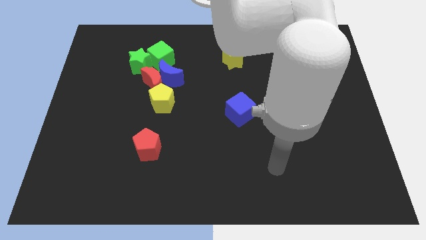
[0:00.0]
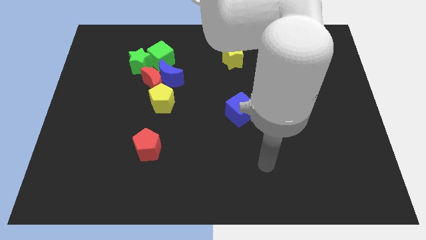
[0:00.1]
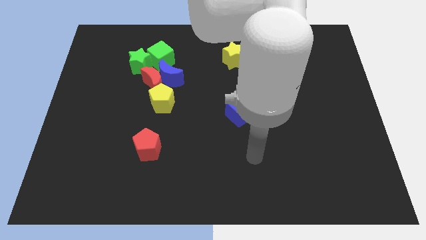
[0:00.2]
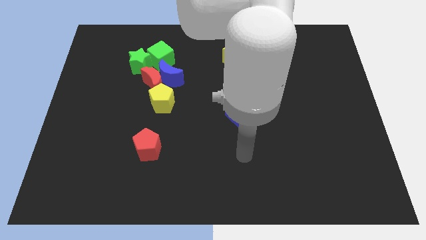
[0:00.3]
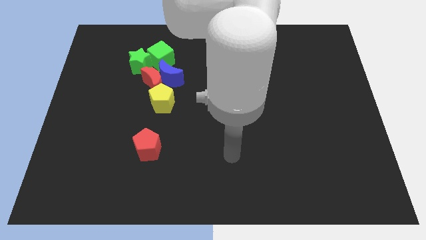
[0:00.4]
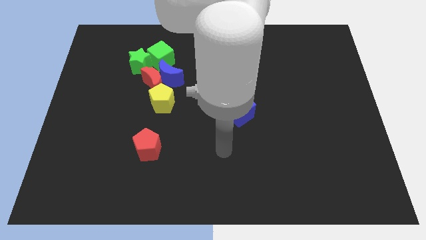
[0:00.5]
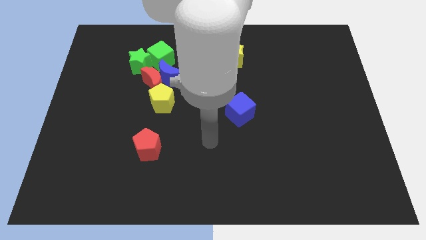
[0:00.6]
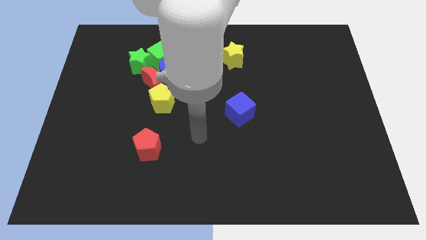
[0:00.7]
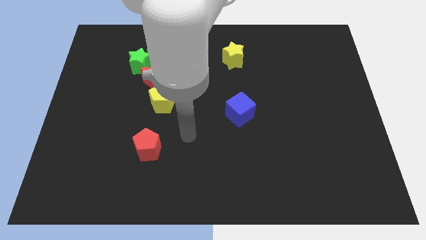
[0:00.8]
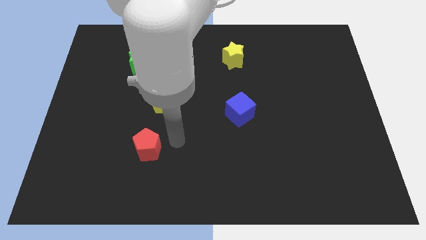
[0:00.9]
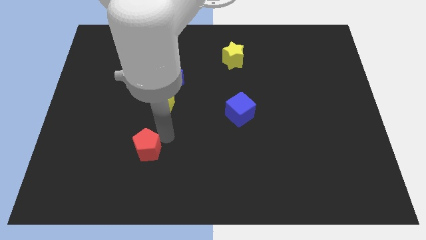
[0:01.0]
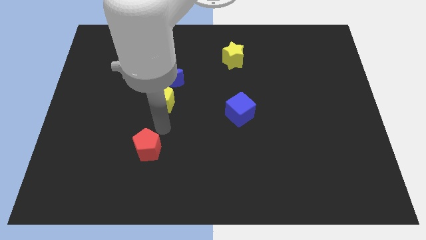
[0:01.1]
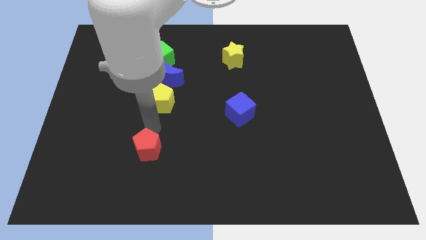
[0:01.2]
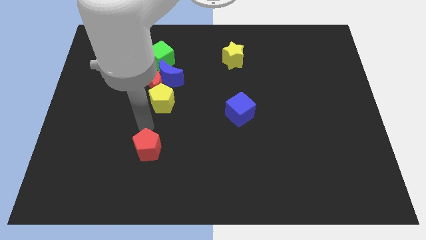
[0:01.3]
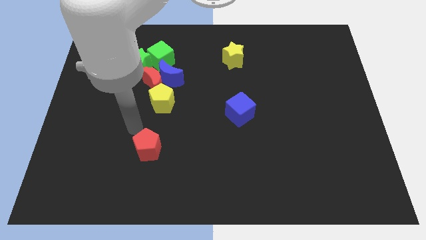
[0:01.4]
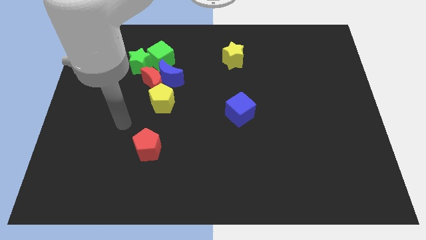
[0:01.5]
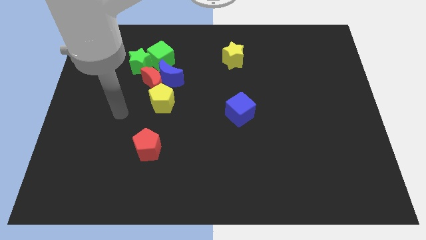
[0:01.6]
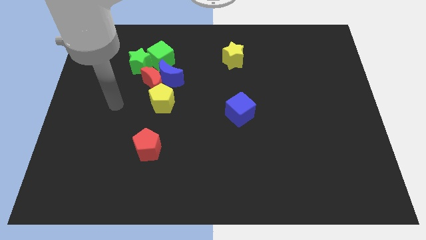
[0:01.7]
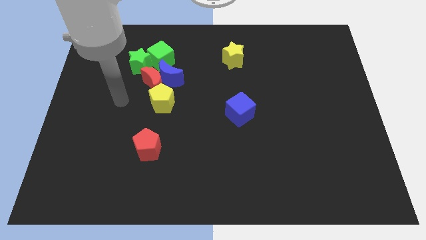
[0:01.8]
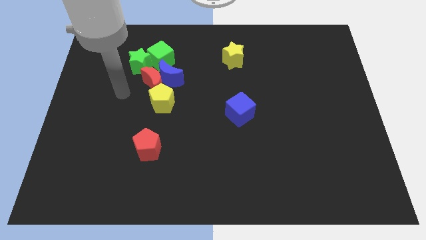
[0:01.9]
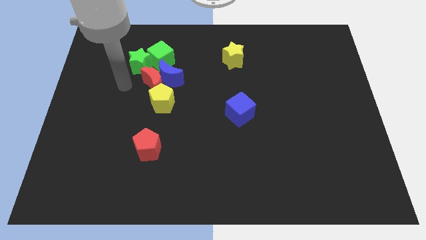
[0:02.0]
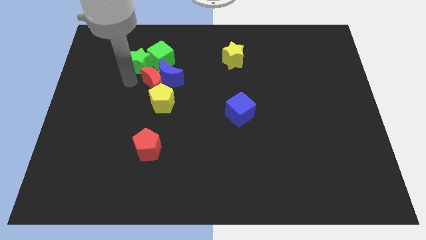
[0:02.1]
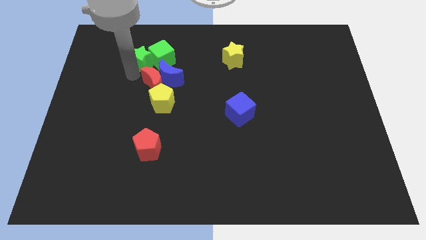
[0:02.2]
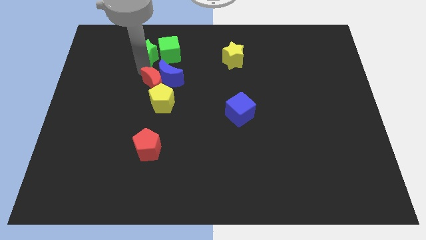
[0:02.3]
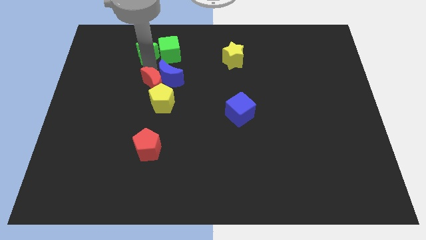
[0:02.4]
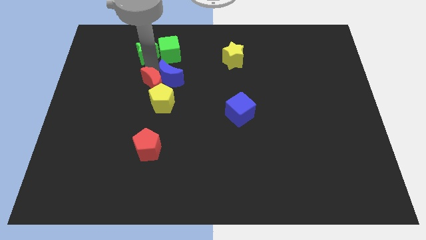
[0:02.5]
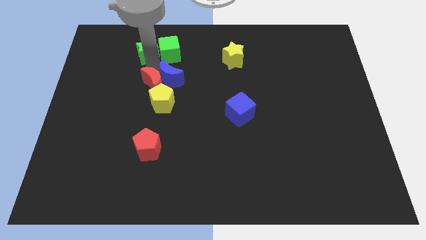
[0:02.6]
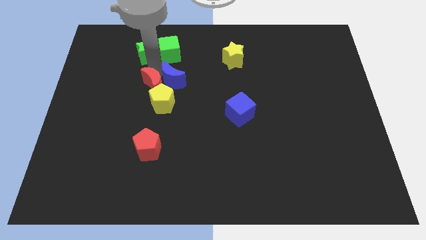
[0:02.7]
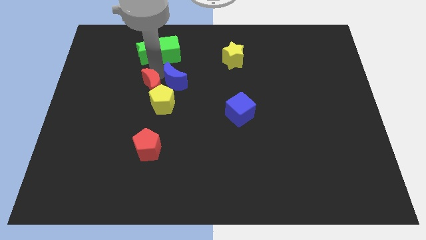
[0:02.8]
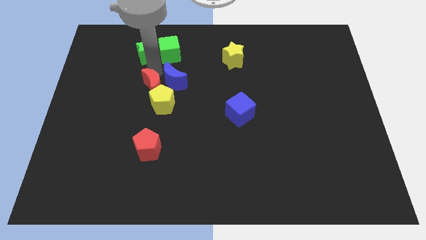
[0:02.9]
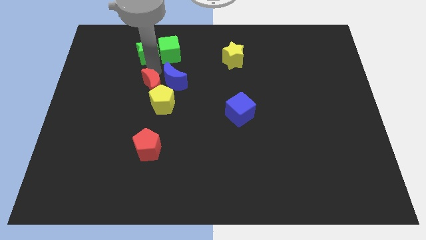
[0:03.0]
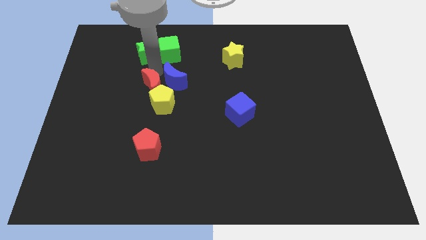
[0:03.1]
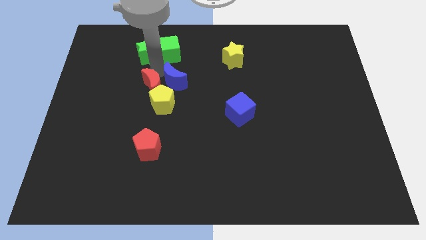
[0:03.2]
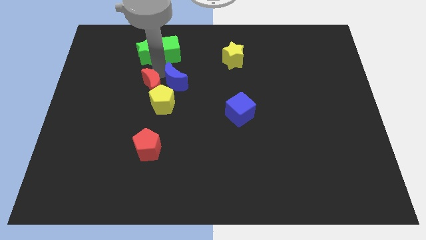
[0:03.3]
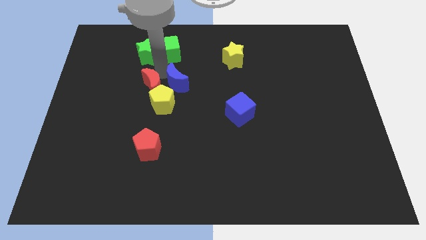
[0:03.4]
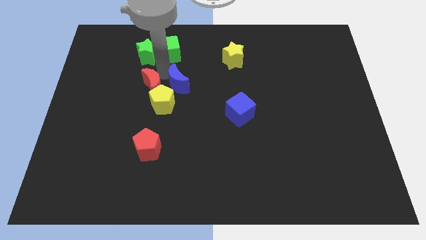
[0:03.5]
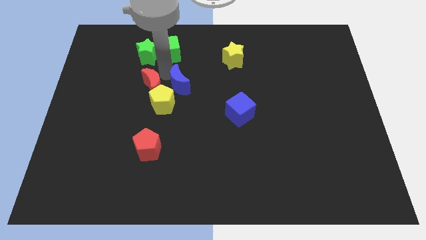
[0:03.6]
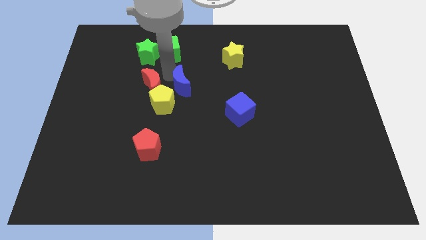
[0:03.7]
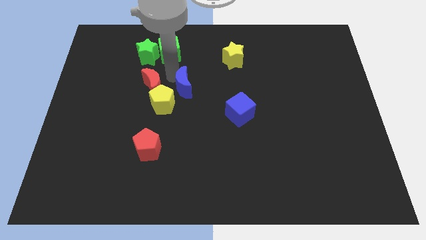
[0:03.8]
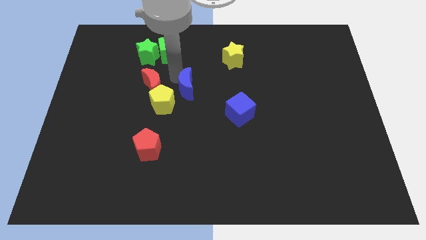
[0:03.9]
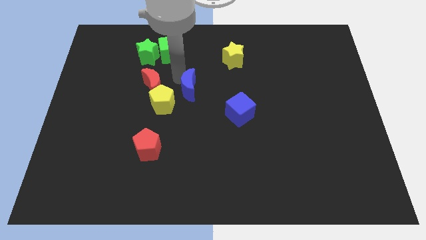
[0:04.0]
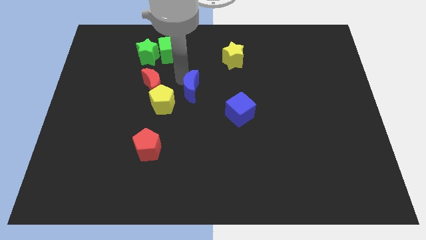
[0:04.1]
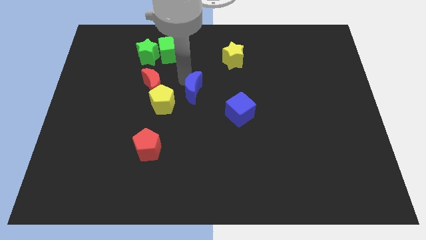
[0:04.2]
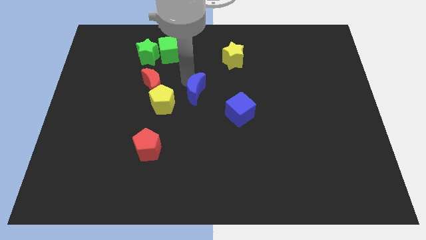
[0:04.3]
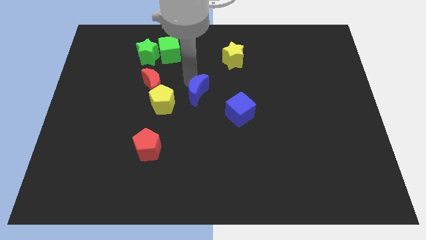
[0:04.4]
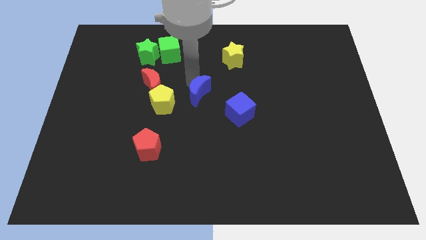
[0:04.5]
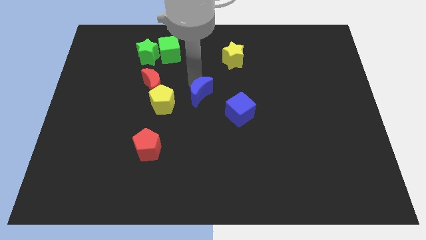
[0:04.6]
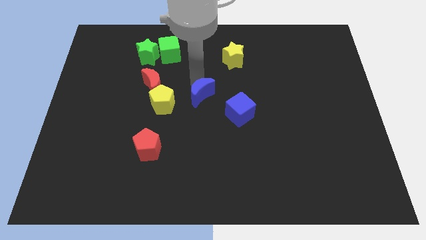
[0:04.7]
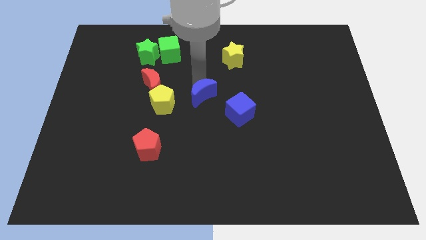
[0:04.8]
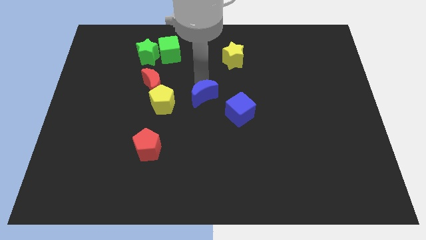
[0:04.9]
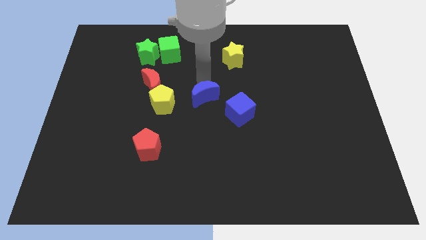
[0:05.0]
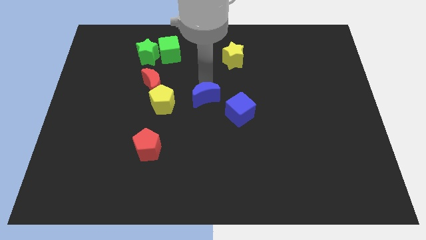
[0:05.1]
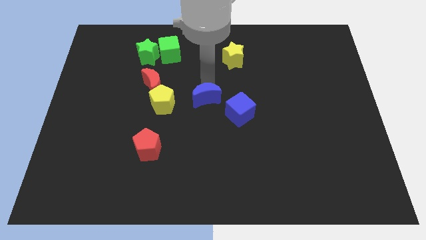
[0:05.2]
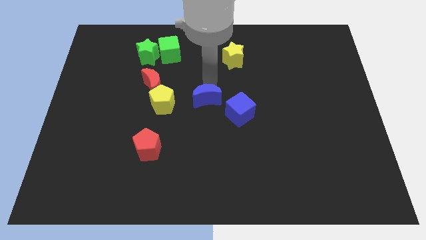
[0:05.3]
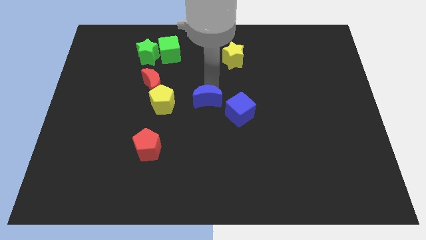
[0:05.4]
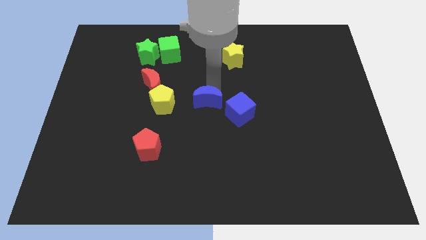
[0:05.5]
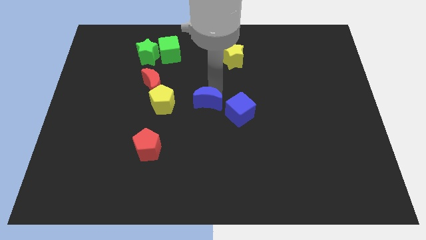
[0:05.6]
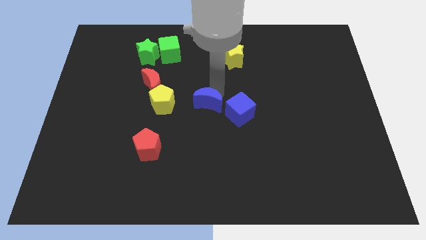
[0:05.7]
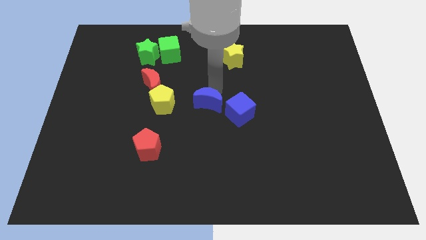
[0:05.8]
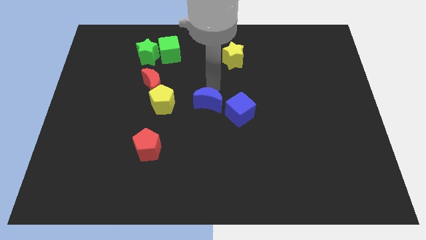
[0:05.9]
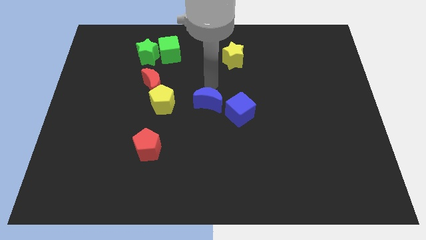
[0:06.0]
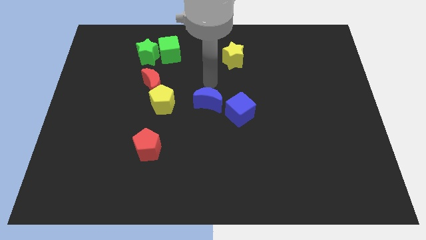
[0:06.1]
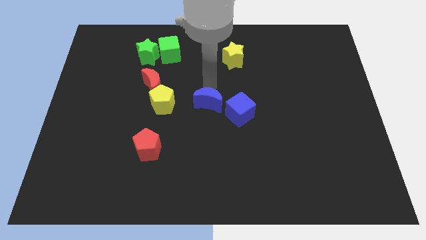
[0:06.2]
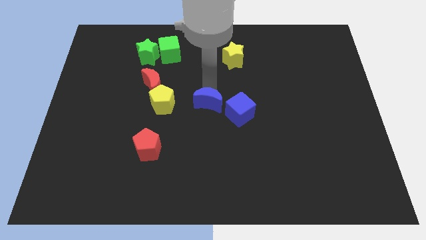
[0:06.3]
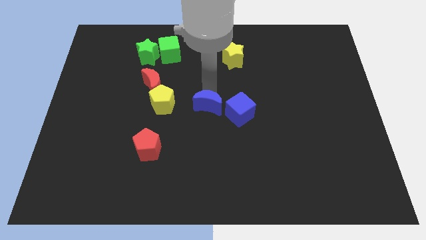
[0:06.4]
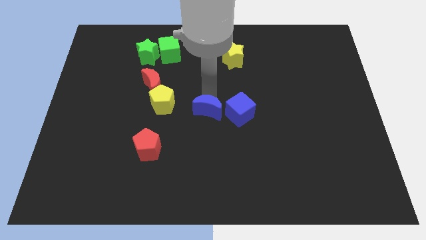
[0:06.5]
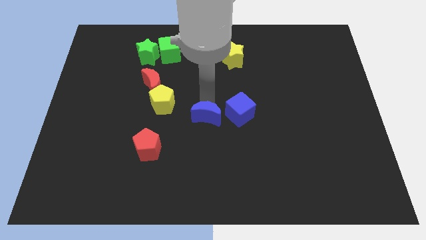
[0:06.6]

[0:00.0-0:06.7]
push the blue moon to the bottom left side of the blue cube

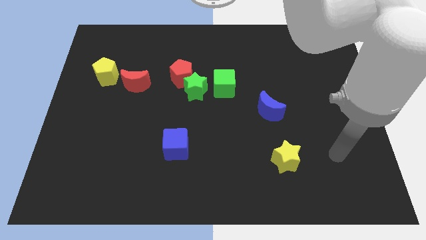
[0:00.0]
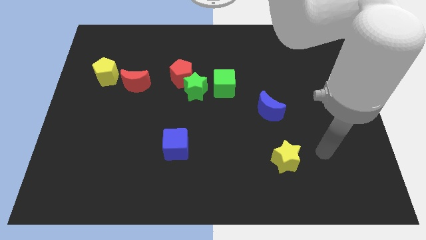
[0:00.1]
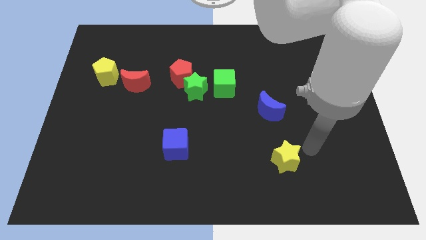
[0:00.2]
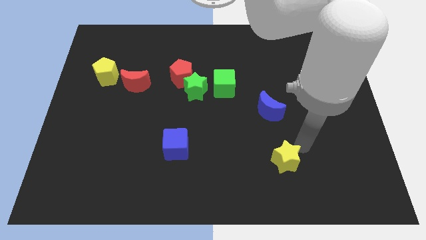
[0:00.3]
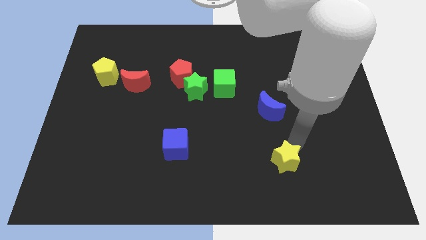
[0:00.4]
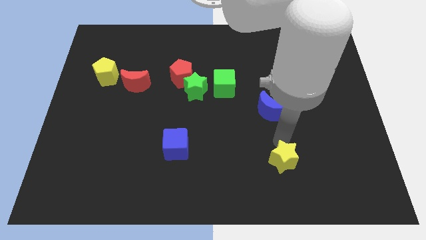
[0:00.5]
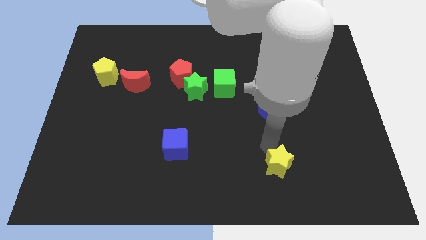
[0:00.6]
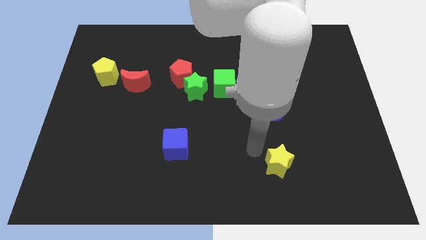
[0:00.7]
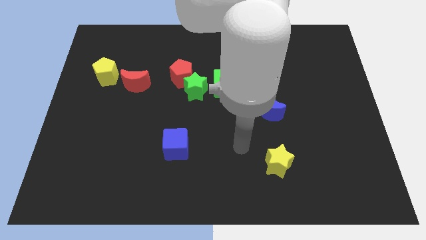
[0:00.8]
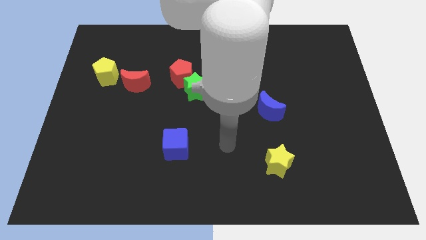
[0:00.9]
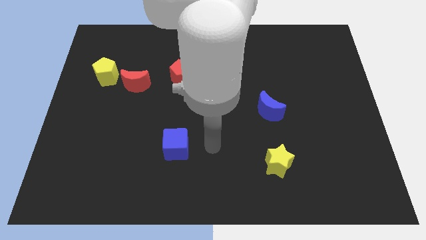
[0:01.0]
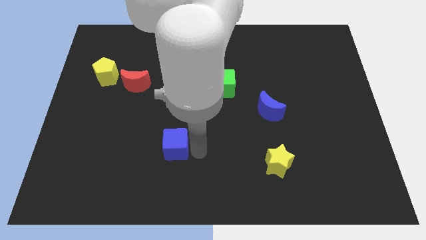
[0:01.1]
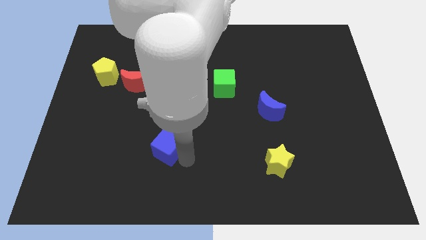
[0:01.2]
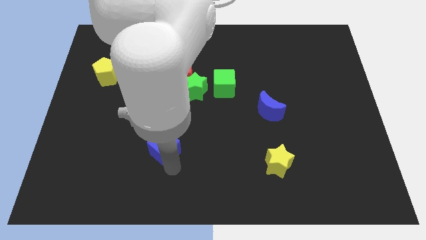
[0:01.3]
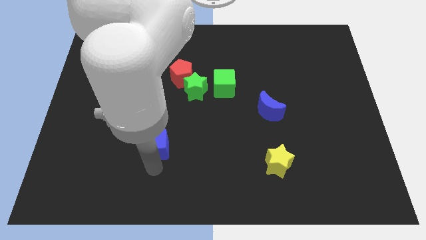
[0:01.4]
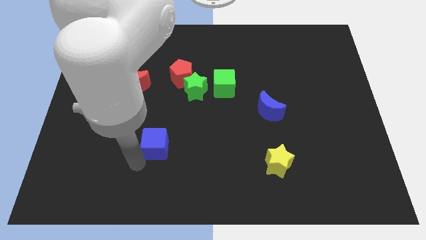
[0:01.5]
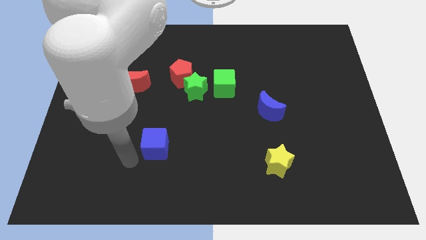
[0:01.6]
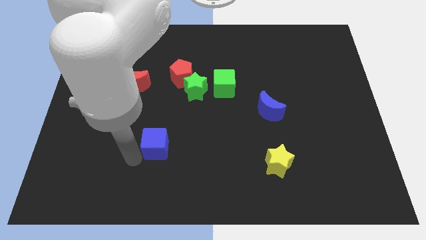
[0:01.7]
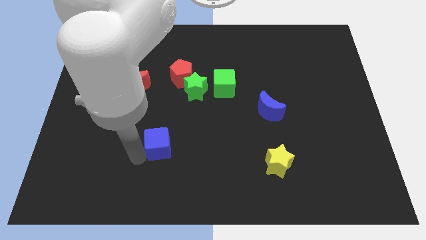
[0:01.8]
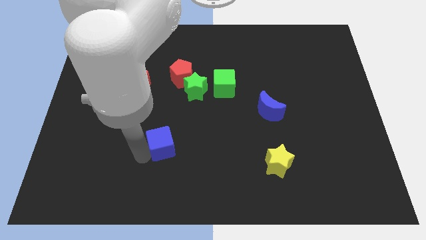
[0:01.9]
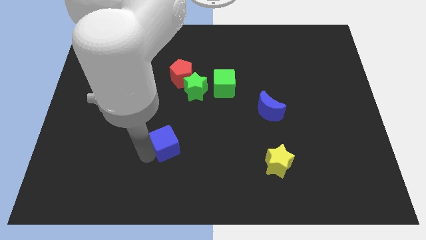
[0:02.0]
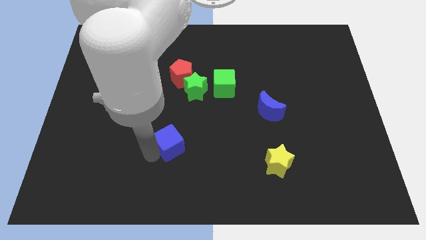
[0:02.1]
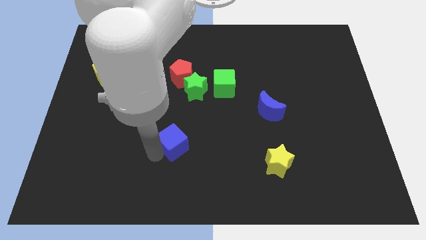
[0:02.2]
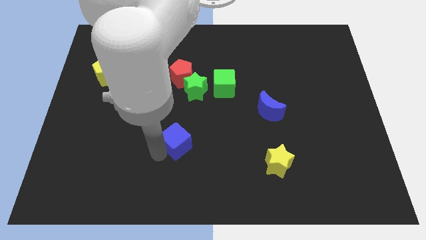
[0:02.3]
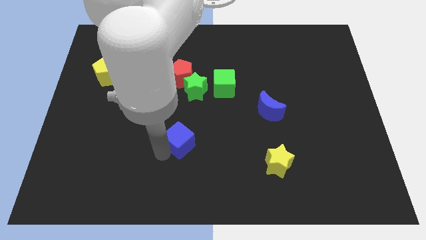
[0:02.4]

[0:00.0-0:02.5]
slide the blue cube to the bottom side of the green star
